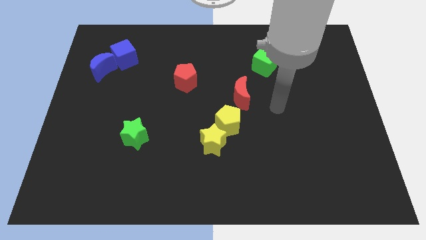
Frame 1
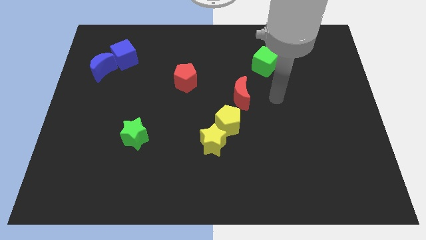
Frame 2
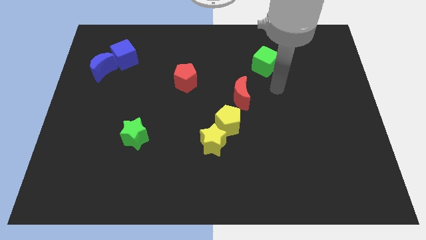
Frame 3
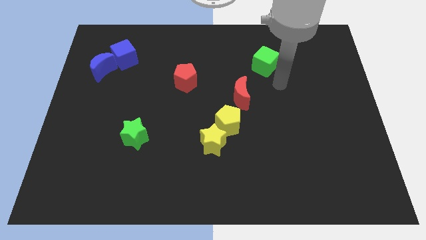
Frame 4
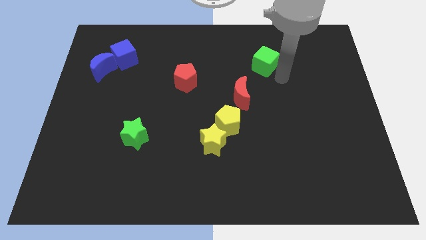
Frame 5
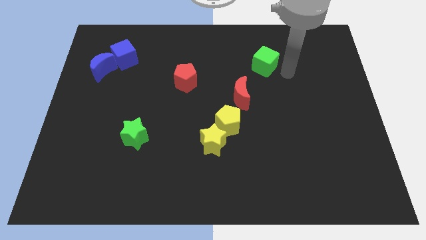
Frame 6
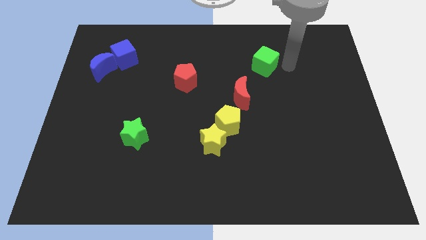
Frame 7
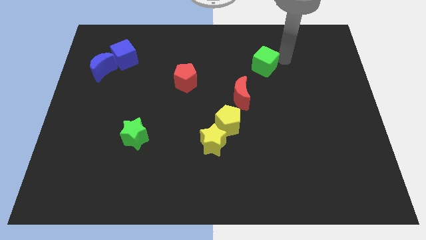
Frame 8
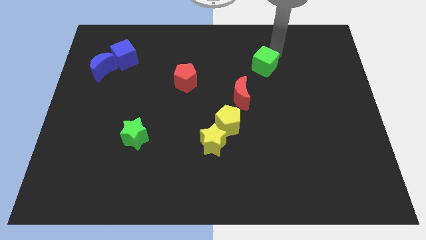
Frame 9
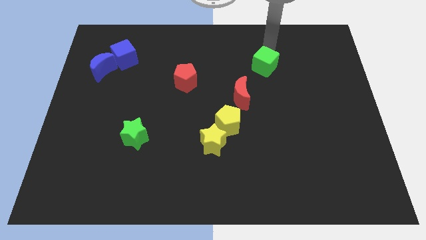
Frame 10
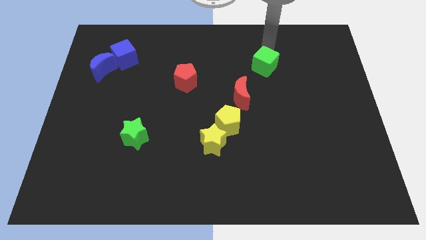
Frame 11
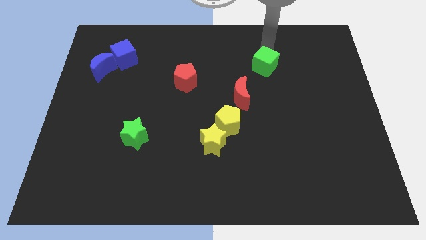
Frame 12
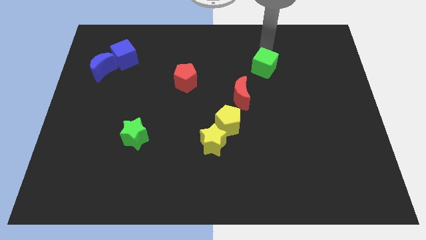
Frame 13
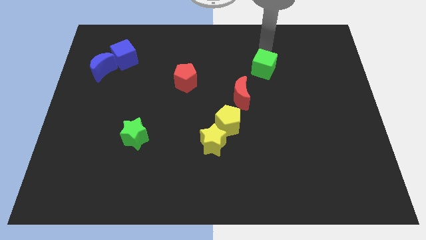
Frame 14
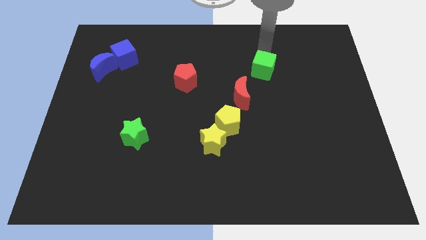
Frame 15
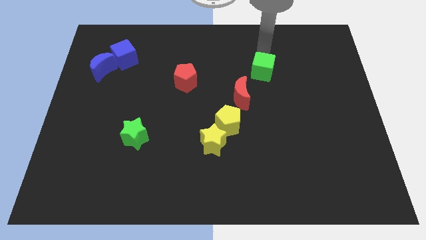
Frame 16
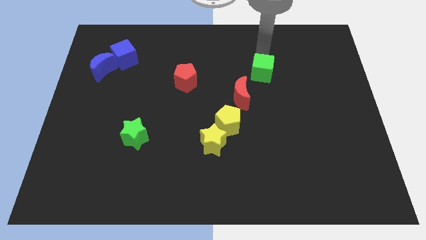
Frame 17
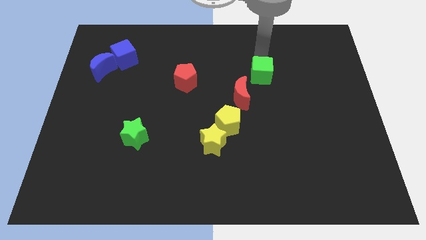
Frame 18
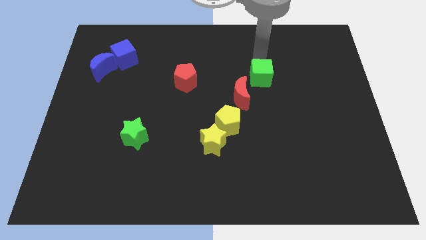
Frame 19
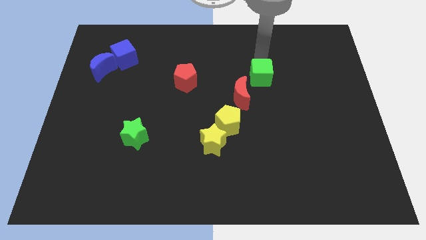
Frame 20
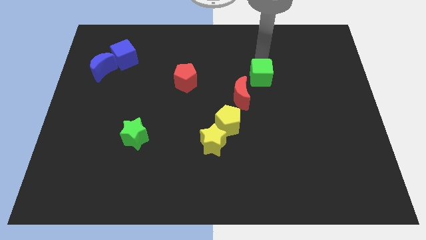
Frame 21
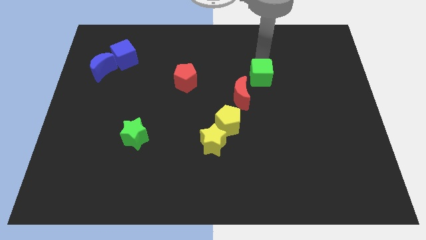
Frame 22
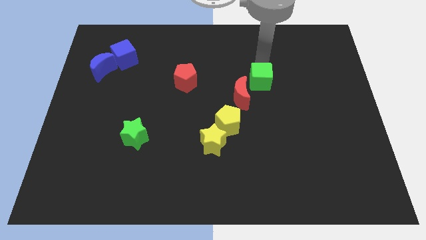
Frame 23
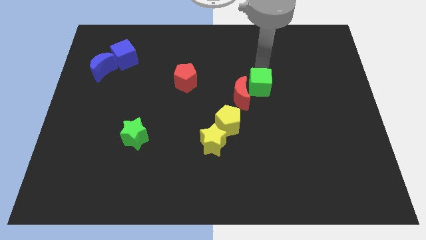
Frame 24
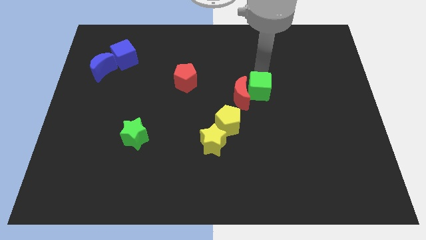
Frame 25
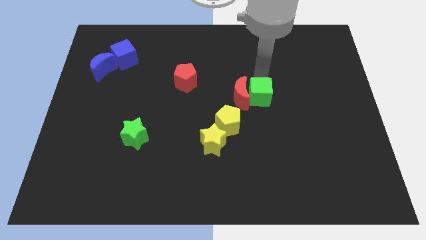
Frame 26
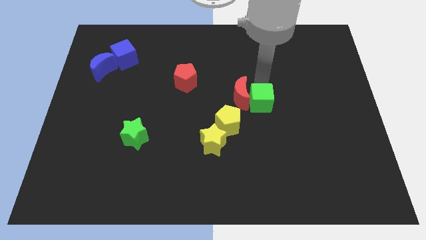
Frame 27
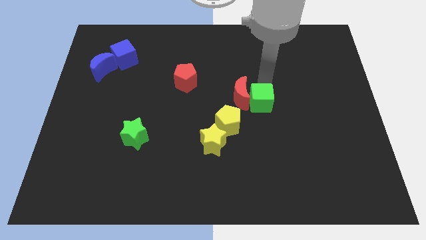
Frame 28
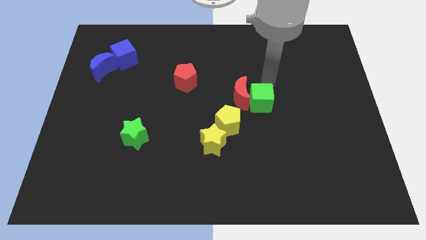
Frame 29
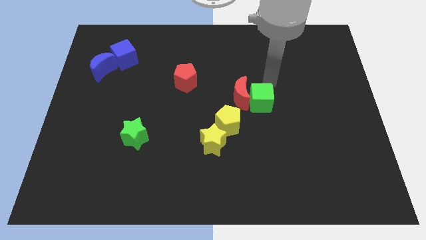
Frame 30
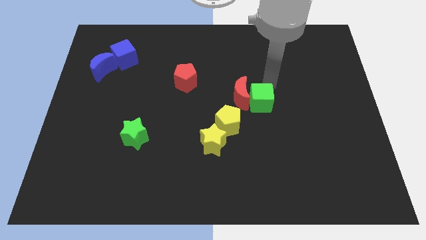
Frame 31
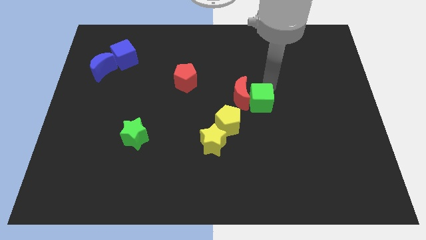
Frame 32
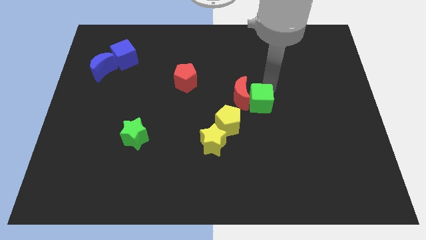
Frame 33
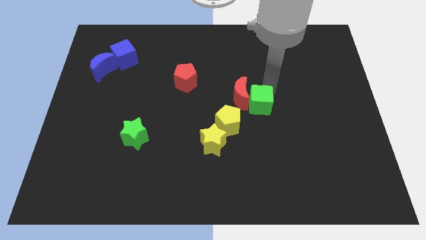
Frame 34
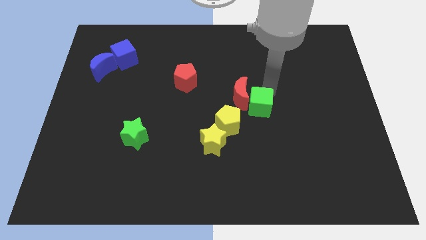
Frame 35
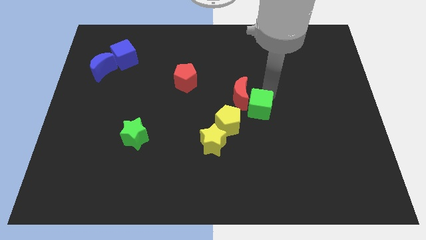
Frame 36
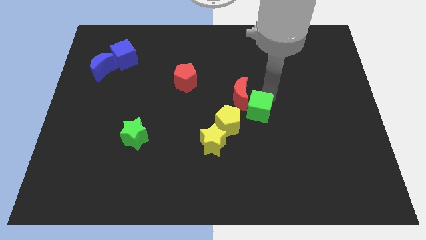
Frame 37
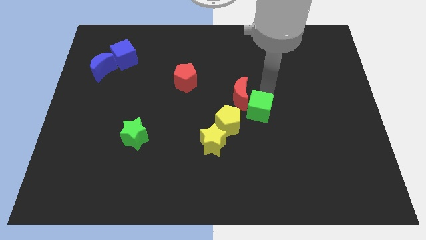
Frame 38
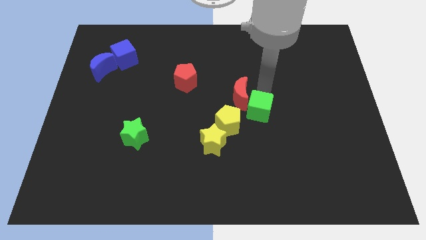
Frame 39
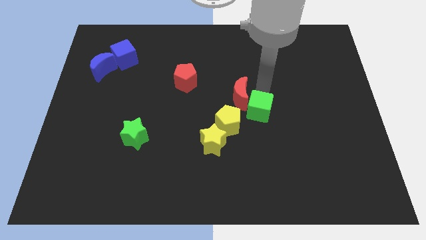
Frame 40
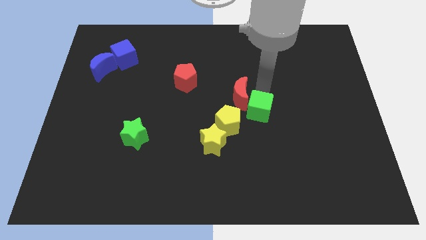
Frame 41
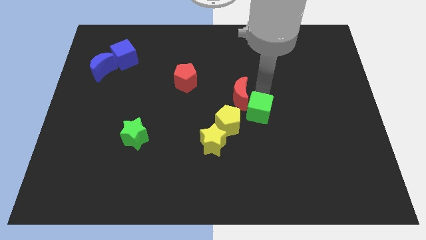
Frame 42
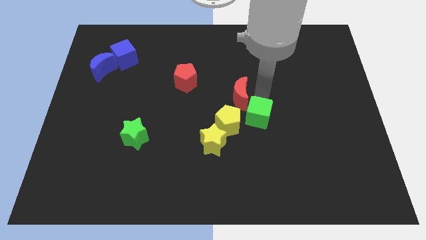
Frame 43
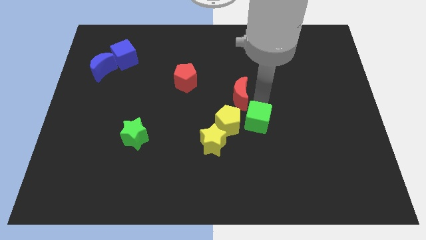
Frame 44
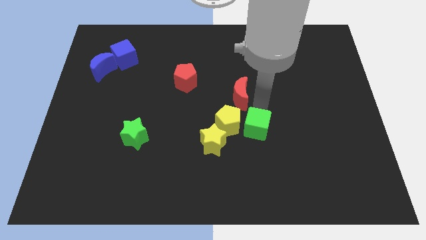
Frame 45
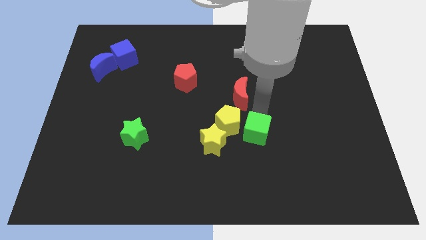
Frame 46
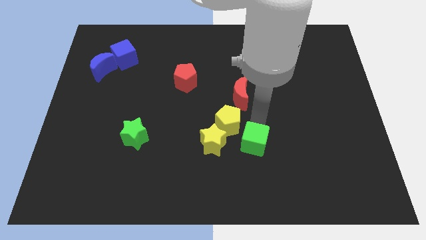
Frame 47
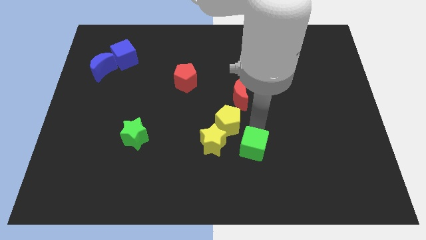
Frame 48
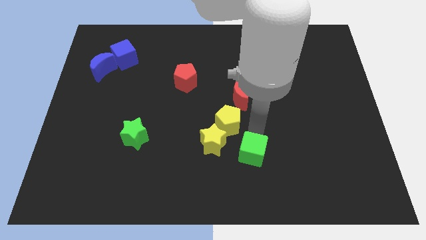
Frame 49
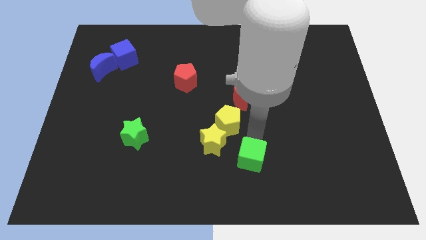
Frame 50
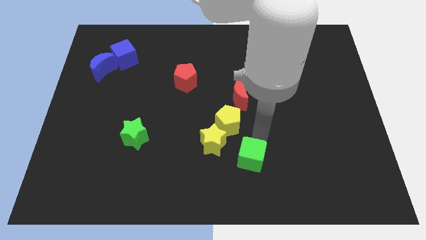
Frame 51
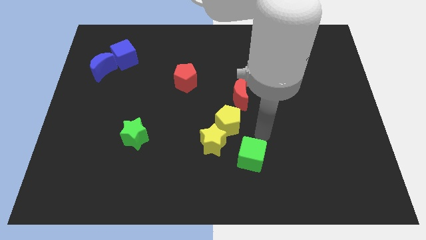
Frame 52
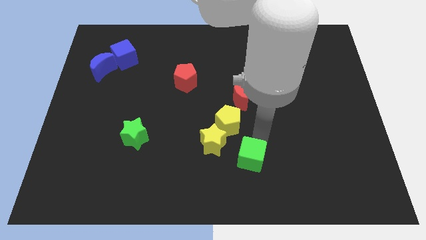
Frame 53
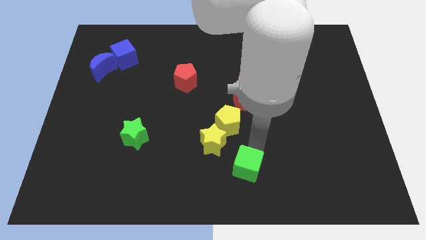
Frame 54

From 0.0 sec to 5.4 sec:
put the green cube to the bottom side

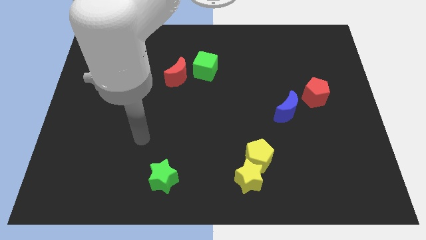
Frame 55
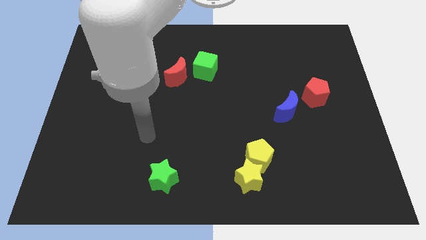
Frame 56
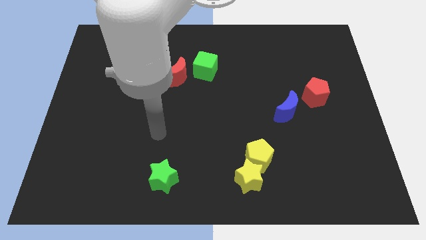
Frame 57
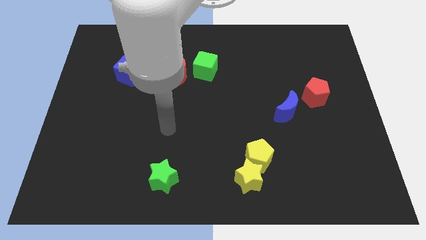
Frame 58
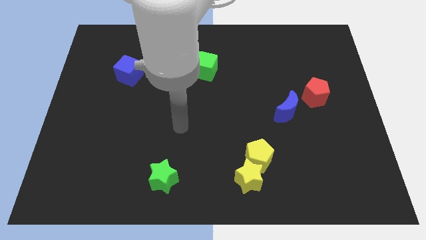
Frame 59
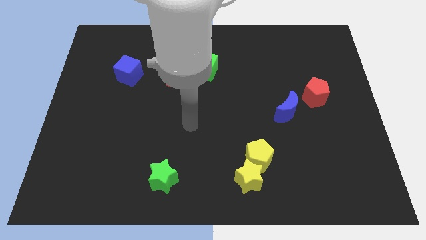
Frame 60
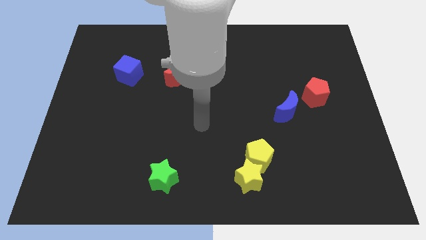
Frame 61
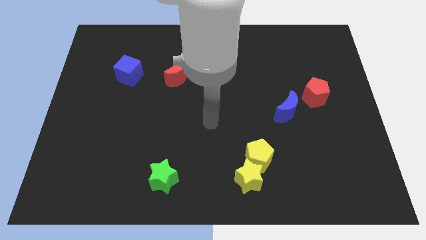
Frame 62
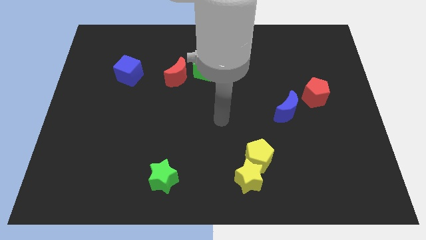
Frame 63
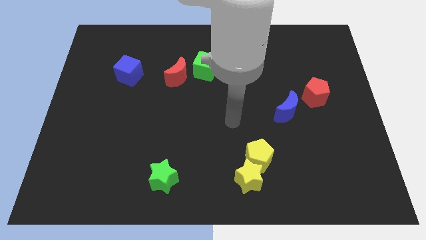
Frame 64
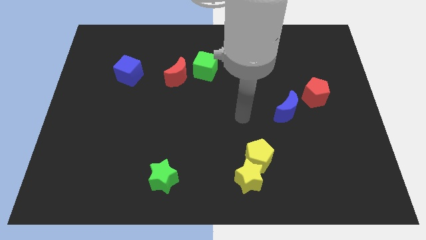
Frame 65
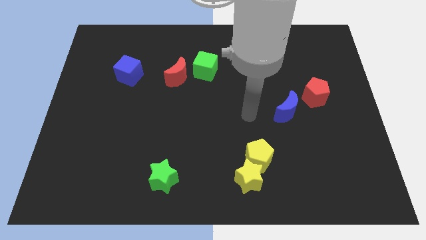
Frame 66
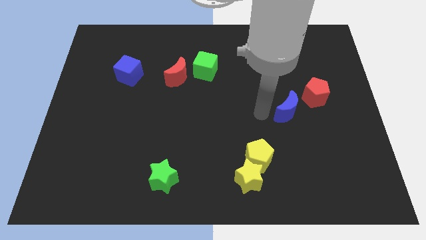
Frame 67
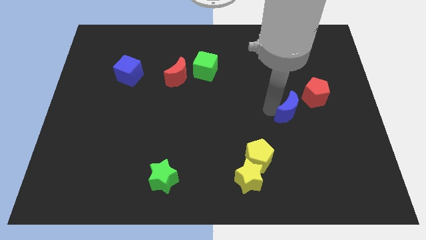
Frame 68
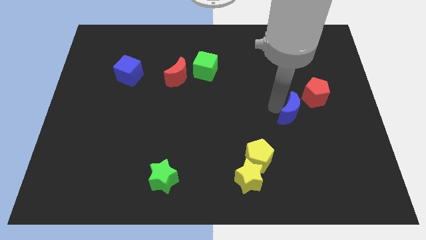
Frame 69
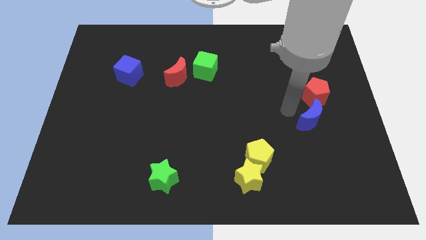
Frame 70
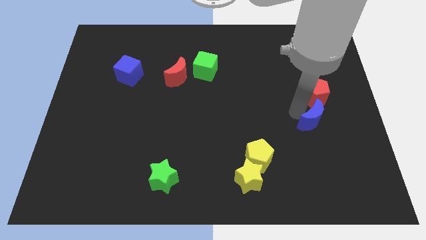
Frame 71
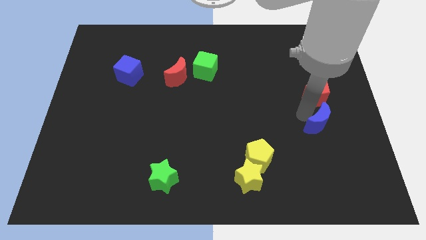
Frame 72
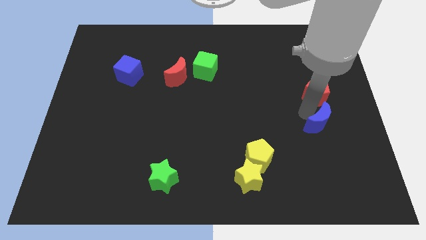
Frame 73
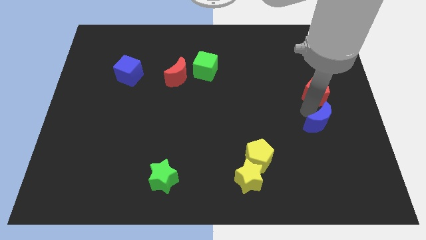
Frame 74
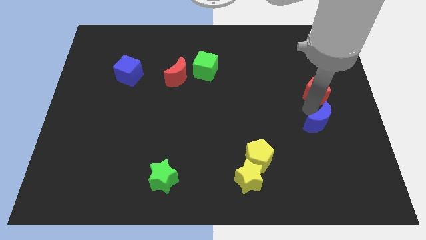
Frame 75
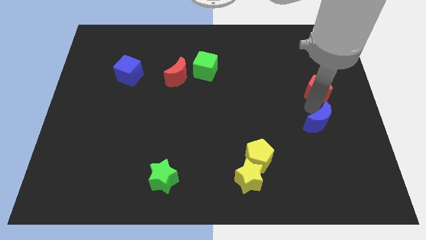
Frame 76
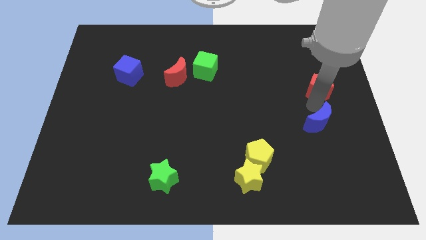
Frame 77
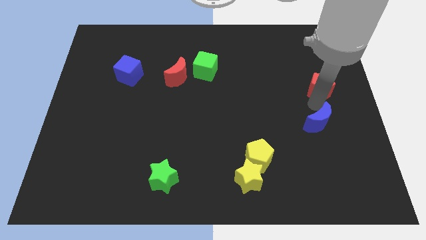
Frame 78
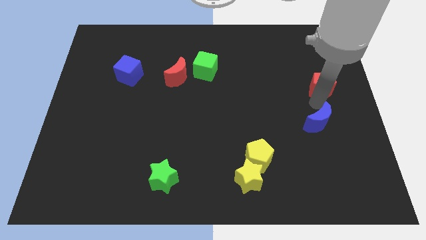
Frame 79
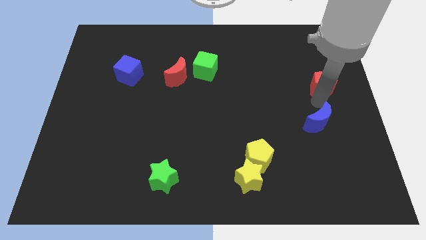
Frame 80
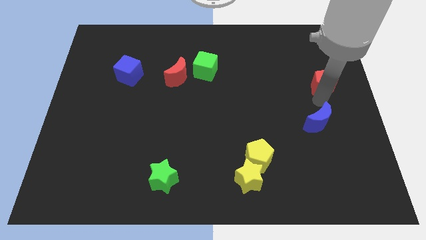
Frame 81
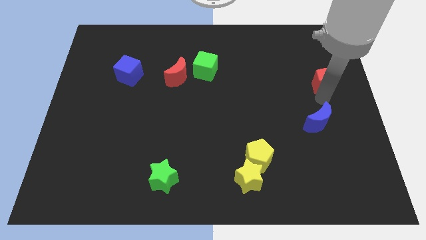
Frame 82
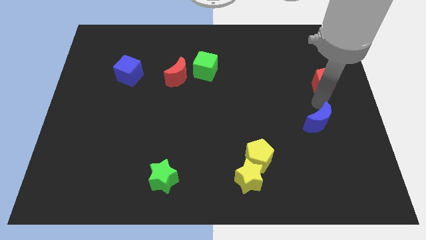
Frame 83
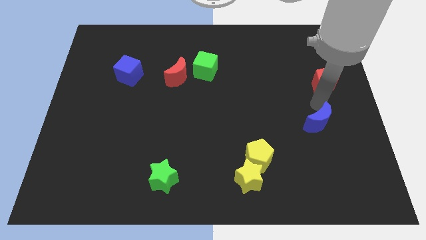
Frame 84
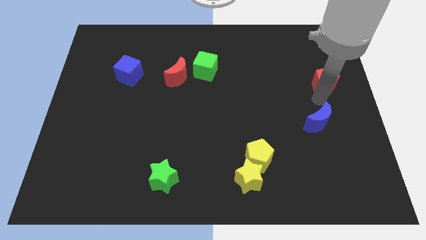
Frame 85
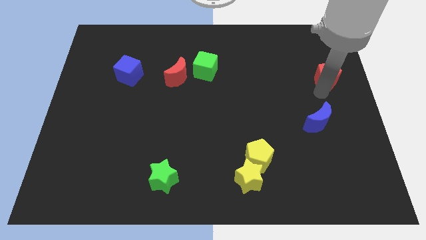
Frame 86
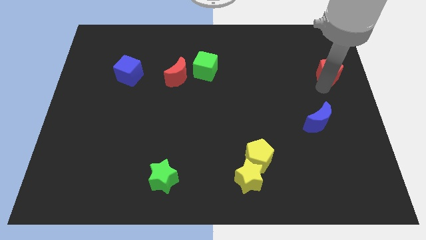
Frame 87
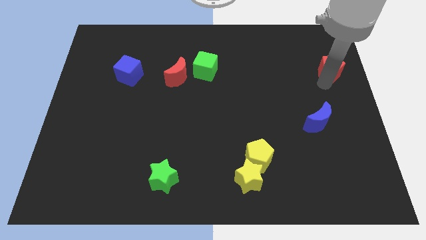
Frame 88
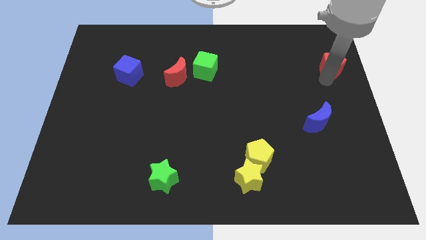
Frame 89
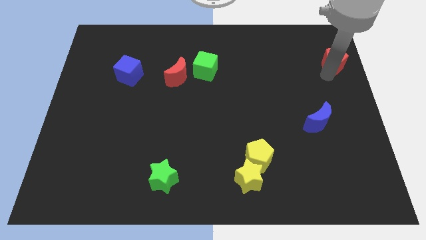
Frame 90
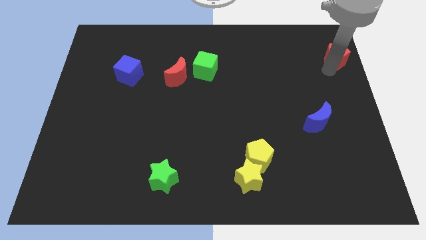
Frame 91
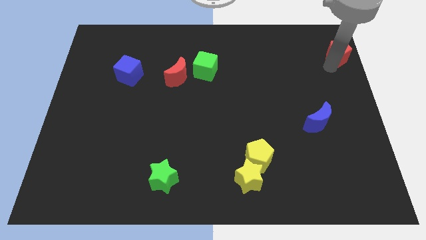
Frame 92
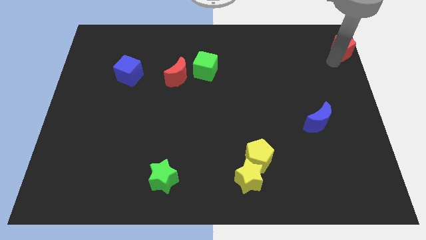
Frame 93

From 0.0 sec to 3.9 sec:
slide the red pentagon to the top right corner
